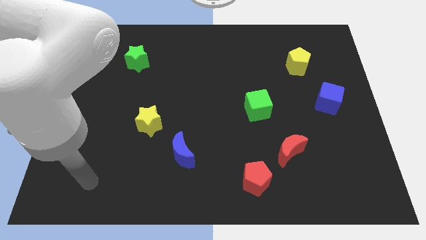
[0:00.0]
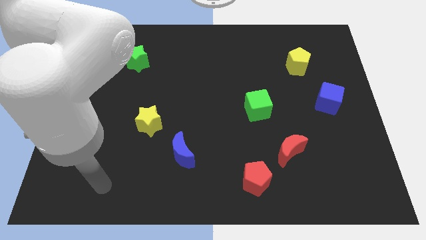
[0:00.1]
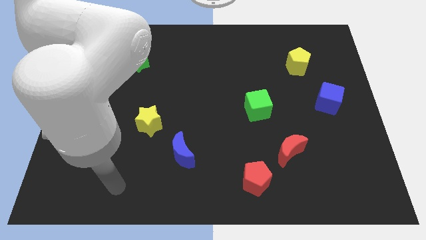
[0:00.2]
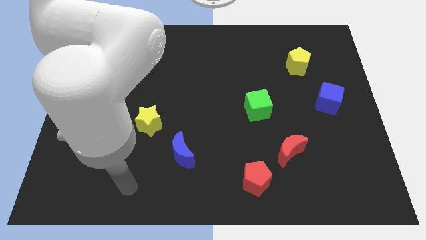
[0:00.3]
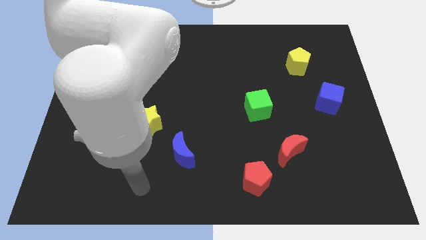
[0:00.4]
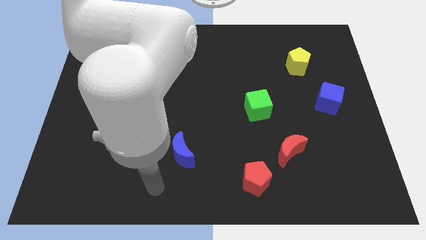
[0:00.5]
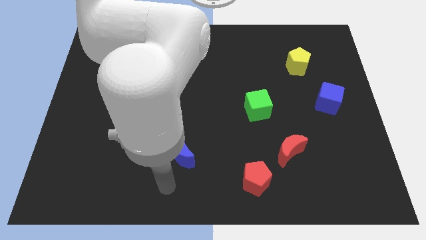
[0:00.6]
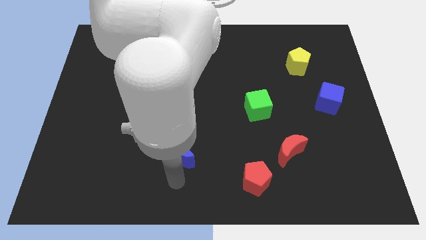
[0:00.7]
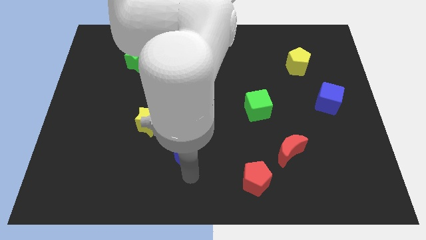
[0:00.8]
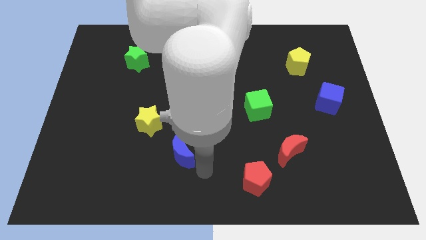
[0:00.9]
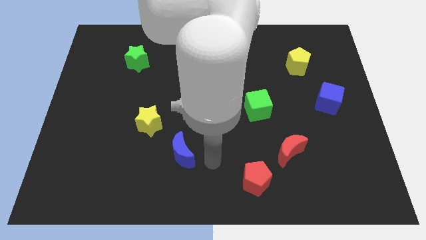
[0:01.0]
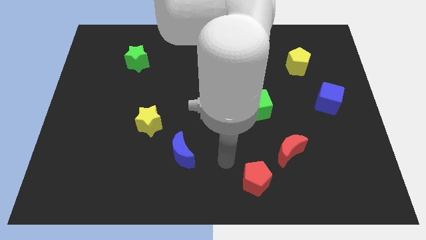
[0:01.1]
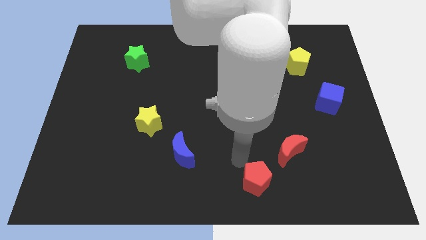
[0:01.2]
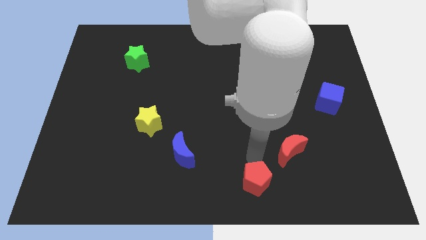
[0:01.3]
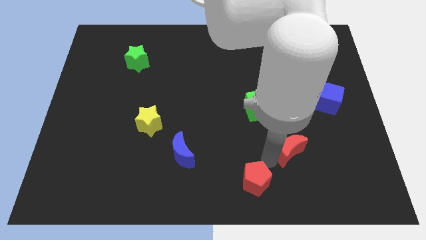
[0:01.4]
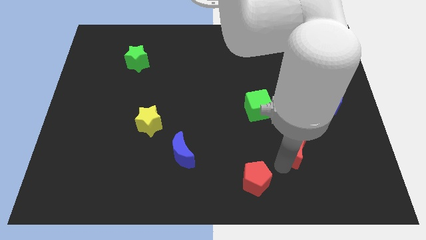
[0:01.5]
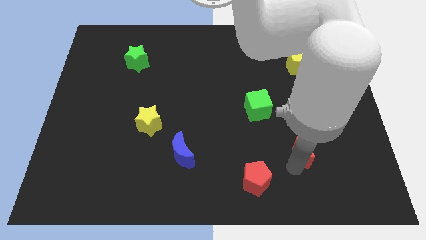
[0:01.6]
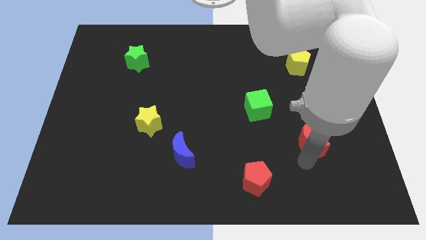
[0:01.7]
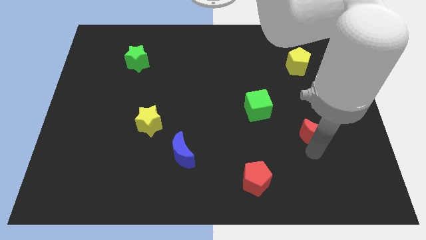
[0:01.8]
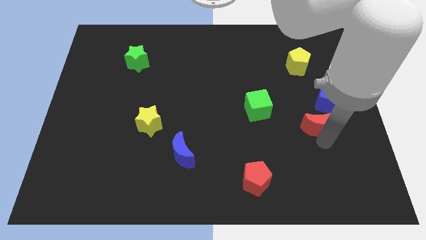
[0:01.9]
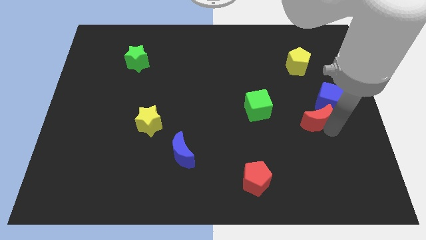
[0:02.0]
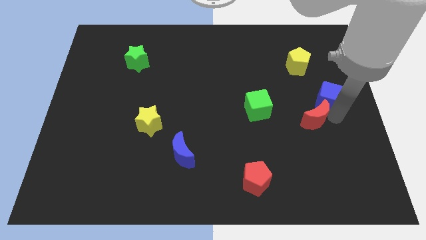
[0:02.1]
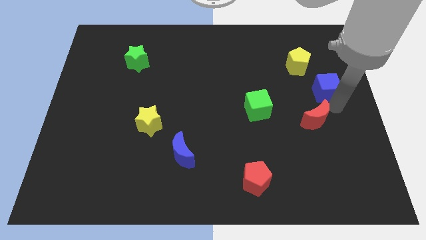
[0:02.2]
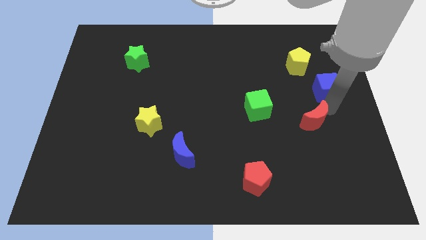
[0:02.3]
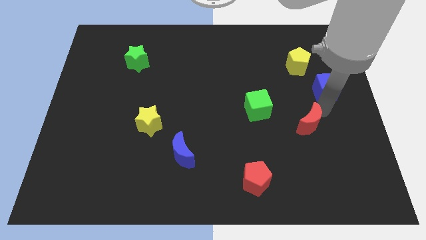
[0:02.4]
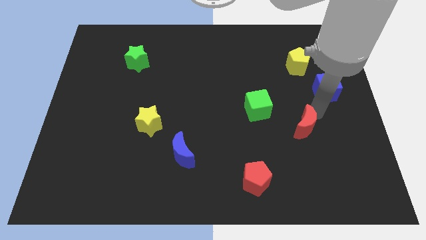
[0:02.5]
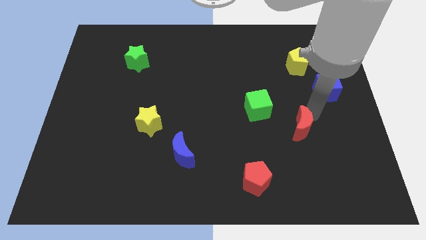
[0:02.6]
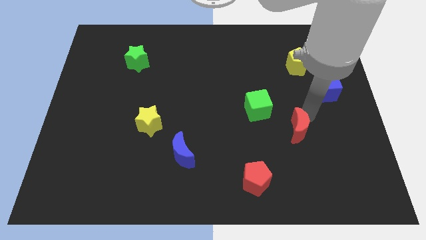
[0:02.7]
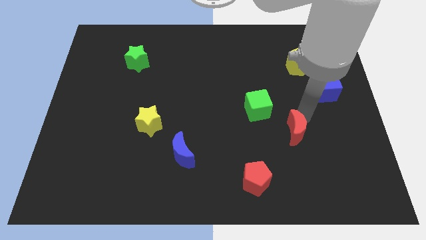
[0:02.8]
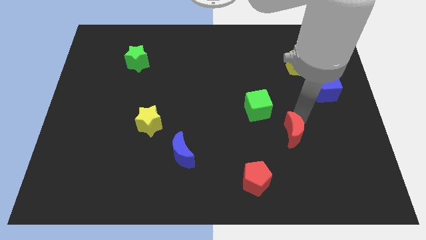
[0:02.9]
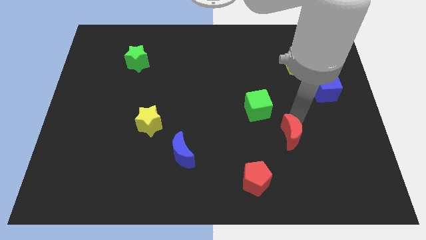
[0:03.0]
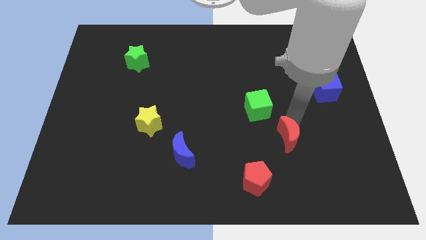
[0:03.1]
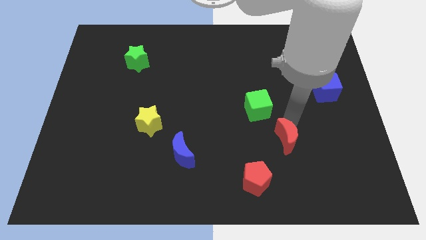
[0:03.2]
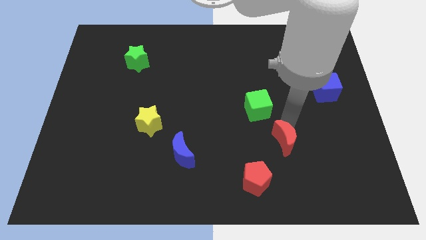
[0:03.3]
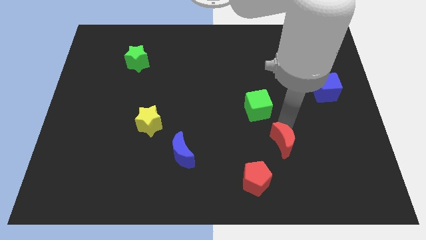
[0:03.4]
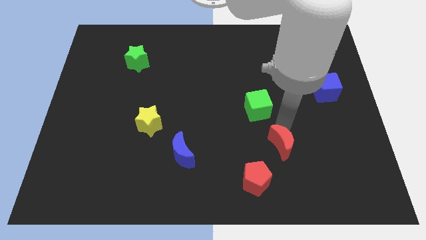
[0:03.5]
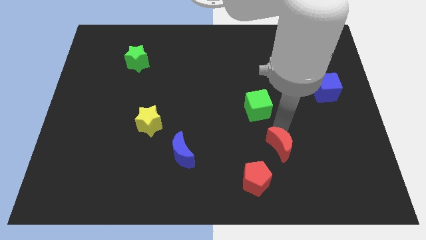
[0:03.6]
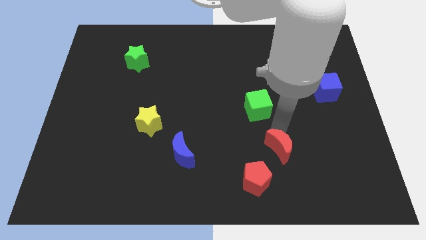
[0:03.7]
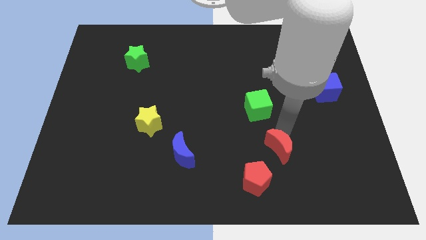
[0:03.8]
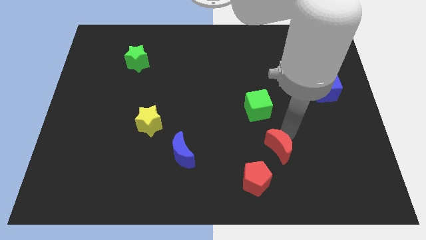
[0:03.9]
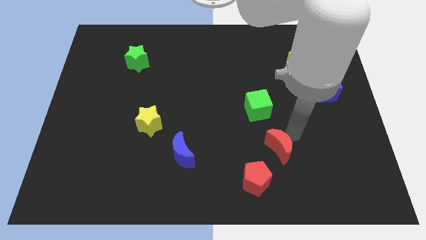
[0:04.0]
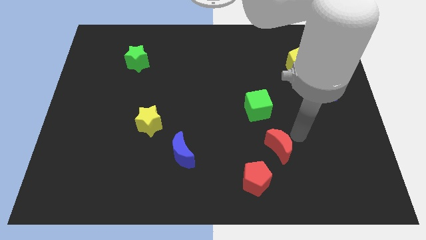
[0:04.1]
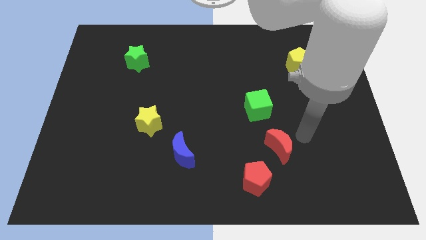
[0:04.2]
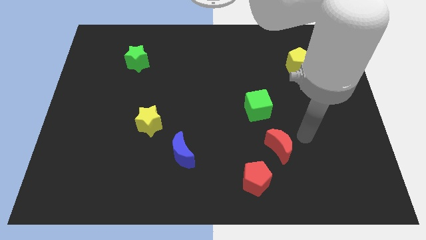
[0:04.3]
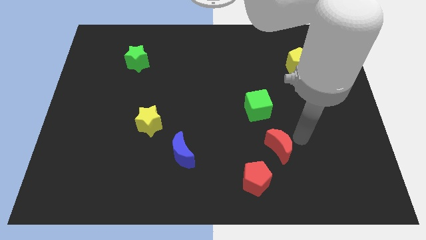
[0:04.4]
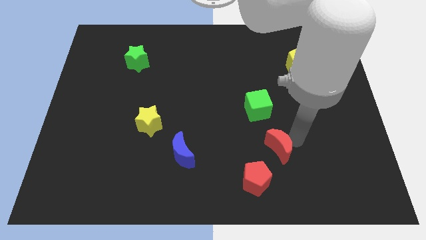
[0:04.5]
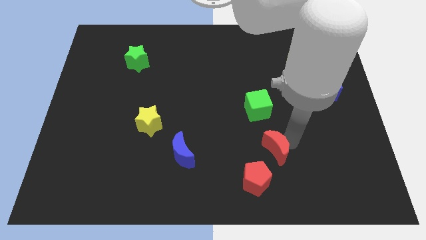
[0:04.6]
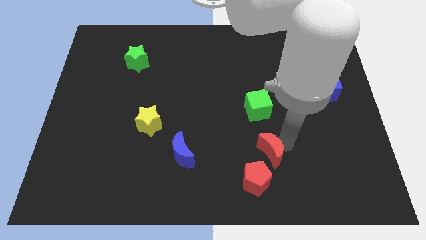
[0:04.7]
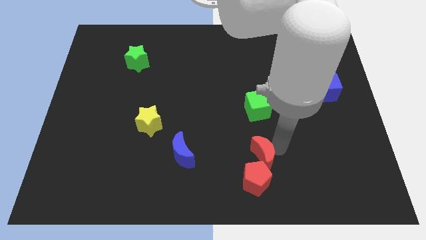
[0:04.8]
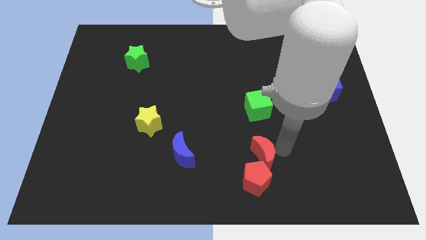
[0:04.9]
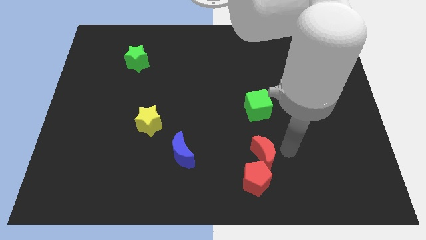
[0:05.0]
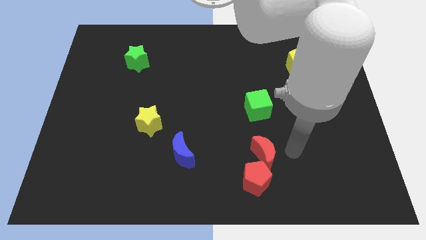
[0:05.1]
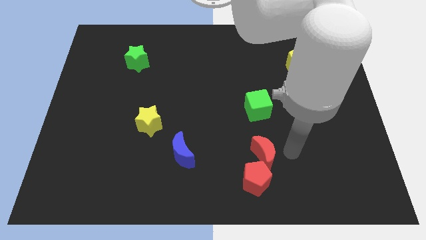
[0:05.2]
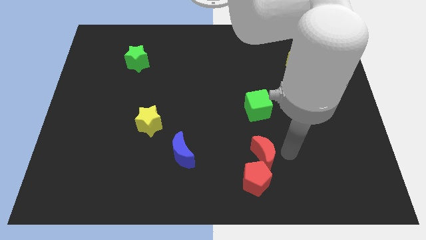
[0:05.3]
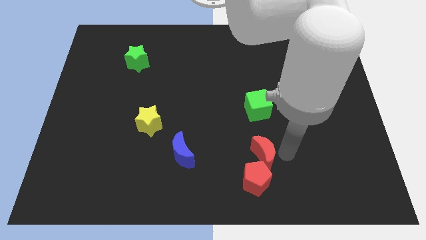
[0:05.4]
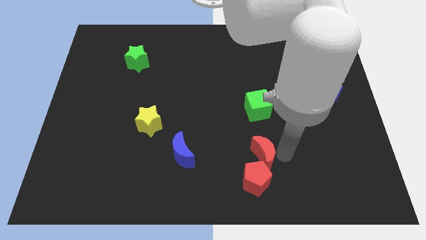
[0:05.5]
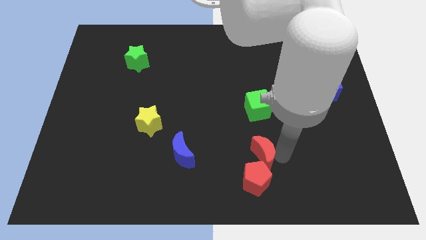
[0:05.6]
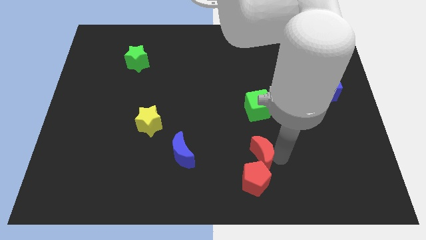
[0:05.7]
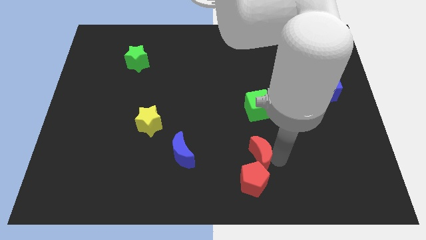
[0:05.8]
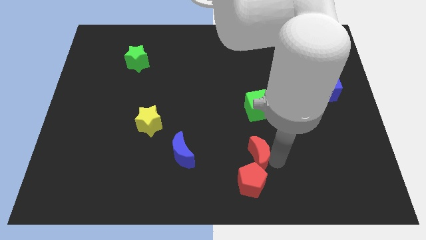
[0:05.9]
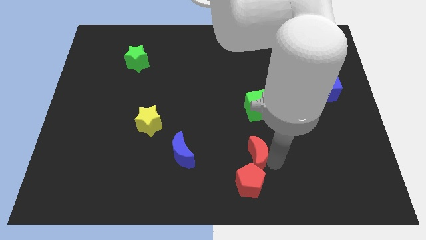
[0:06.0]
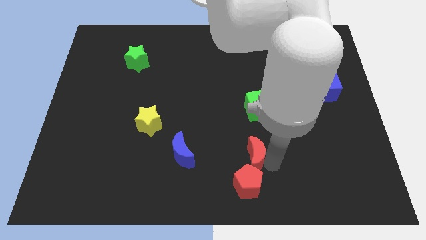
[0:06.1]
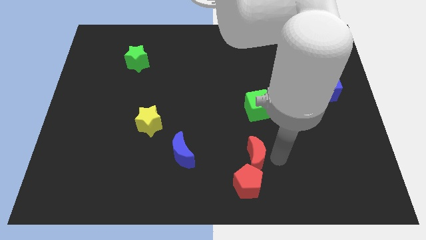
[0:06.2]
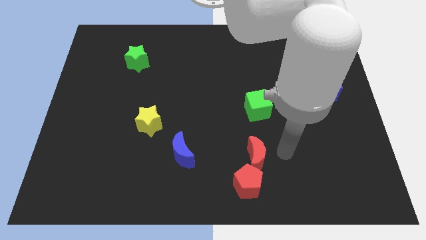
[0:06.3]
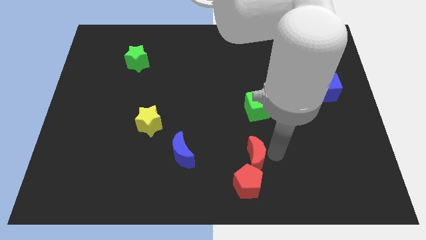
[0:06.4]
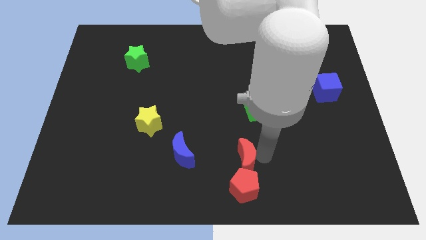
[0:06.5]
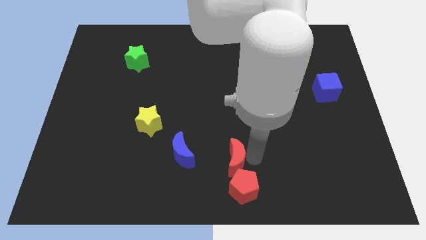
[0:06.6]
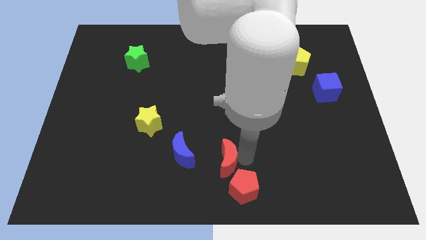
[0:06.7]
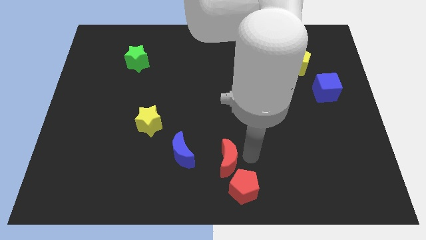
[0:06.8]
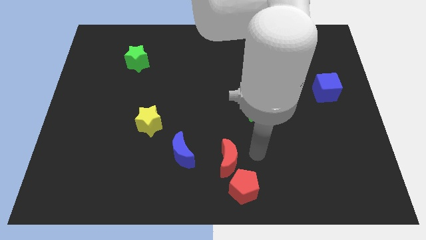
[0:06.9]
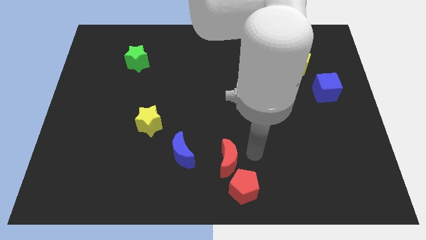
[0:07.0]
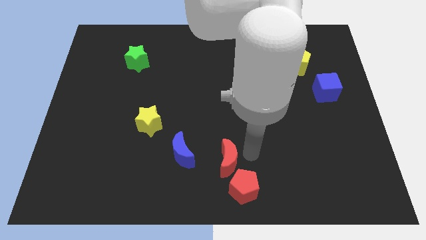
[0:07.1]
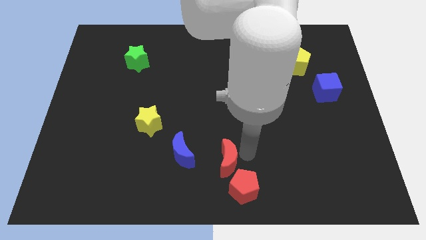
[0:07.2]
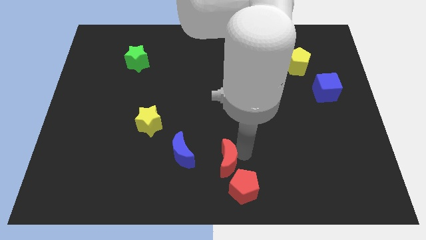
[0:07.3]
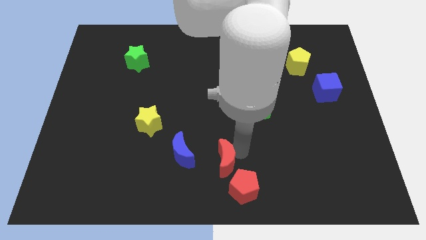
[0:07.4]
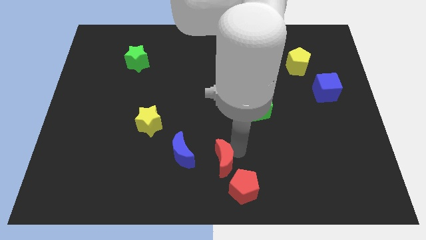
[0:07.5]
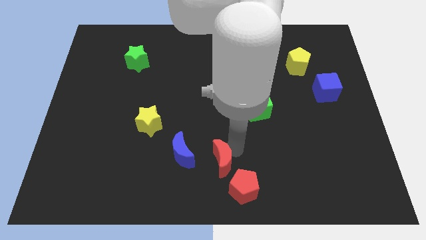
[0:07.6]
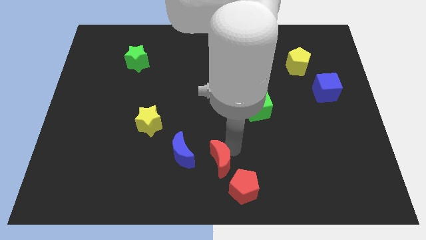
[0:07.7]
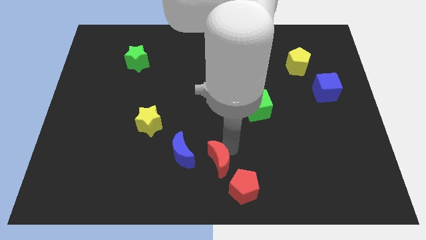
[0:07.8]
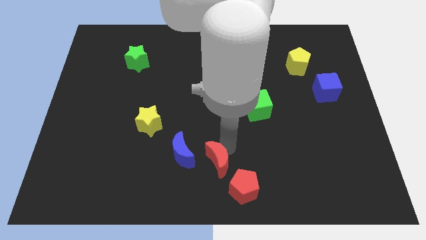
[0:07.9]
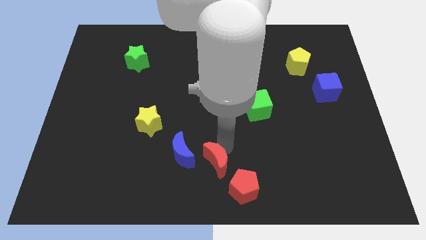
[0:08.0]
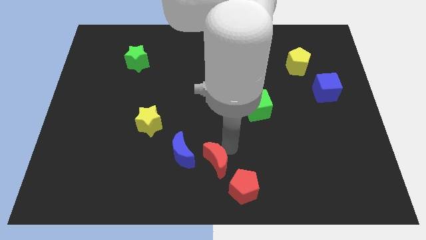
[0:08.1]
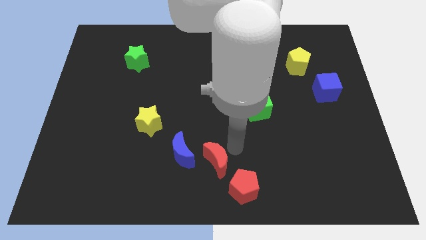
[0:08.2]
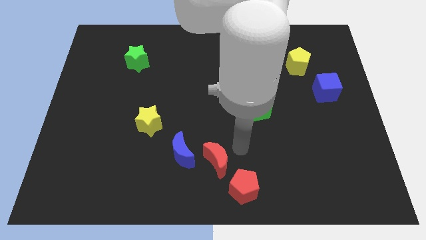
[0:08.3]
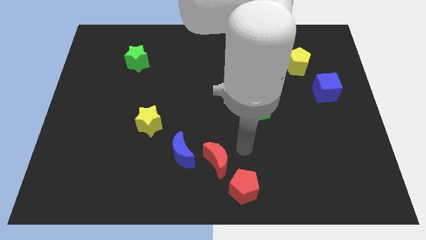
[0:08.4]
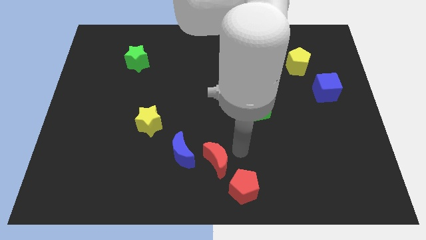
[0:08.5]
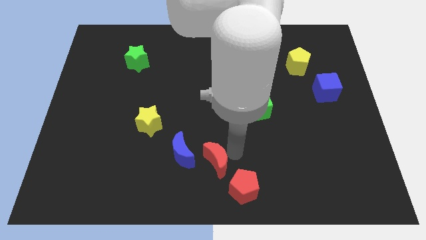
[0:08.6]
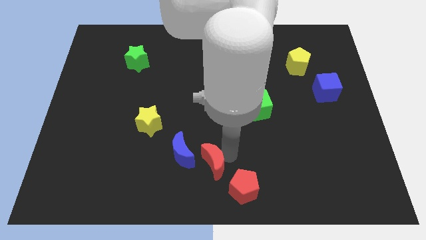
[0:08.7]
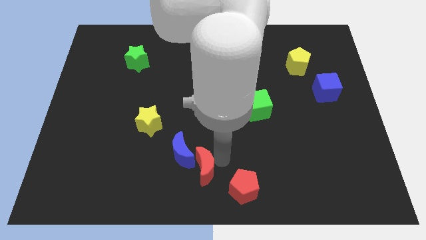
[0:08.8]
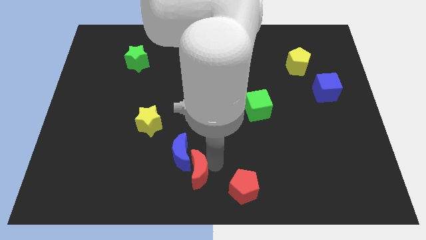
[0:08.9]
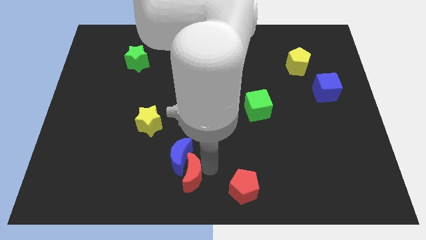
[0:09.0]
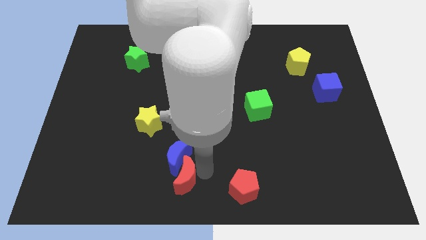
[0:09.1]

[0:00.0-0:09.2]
push the red moon left
